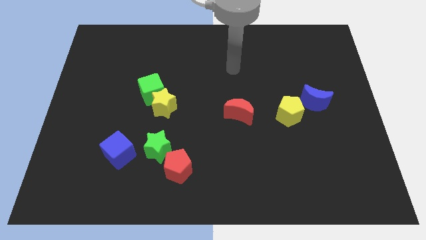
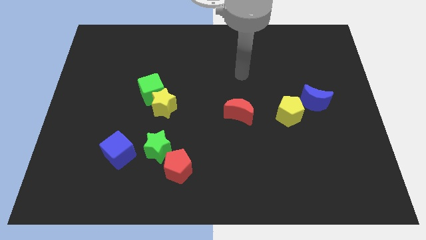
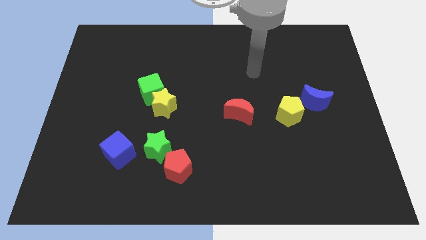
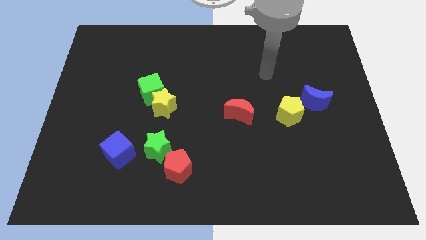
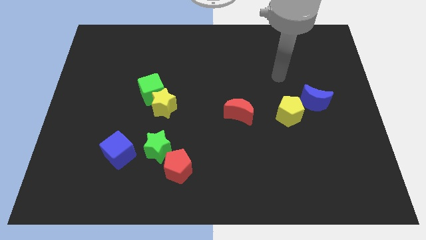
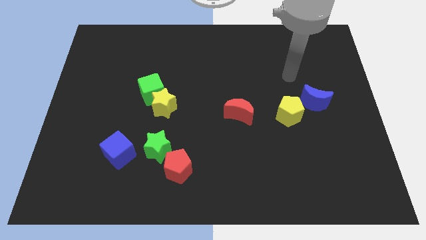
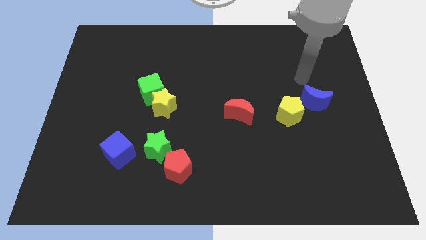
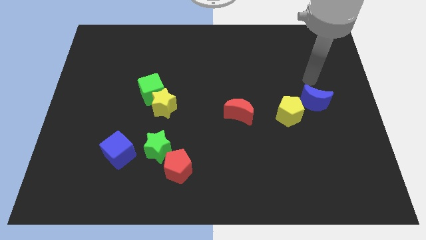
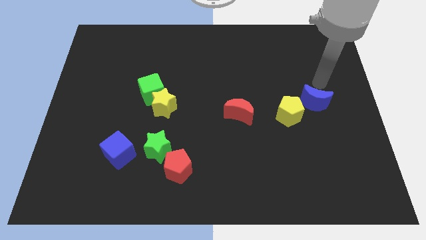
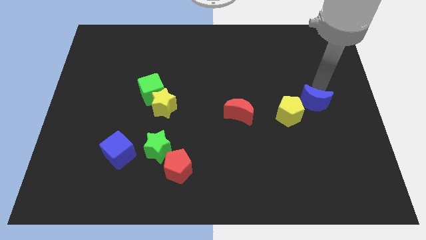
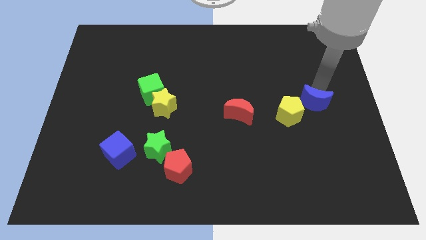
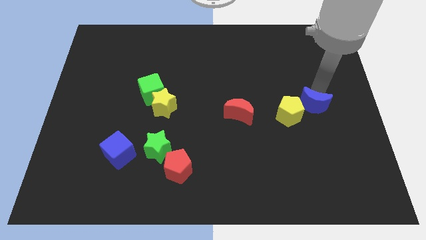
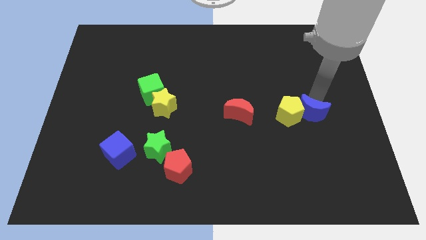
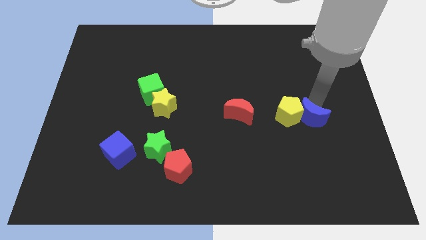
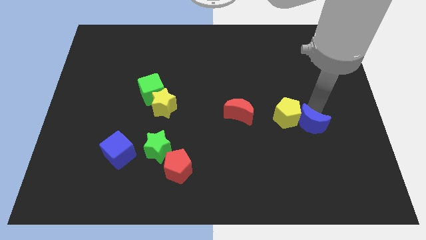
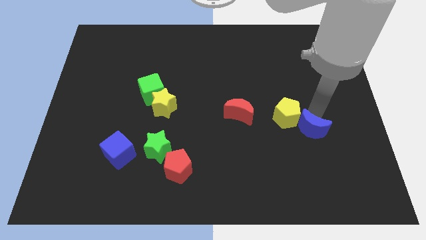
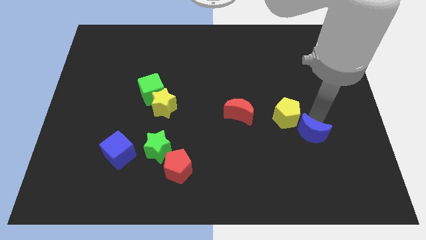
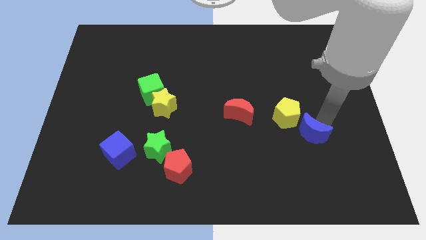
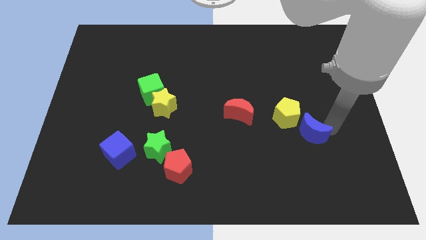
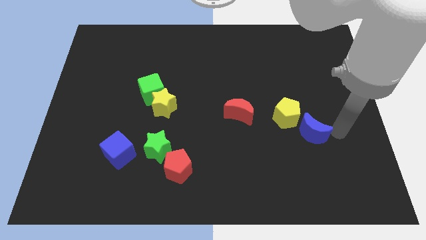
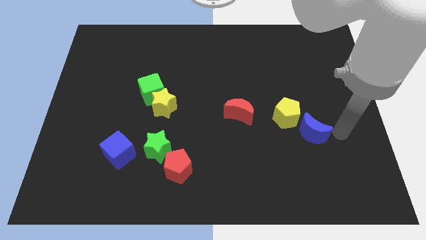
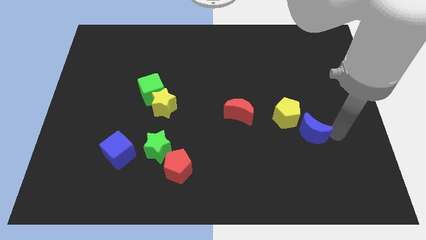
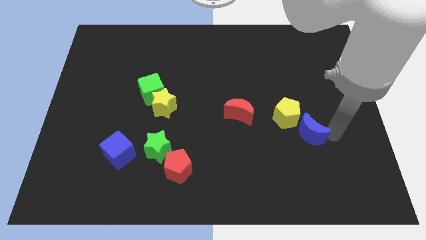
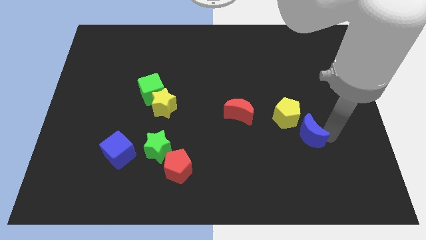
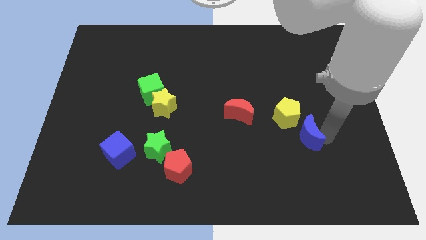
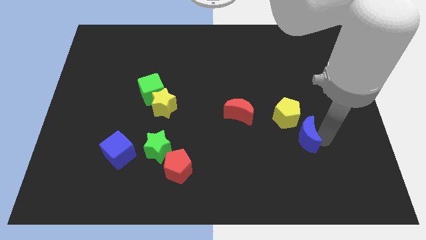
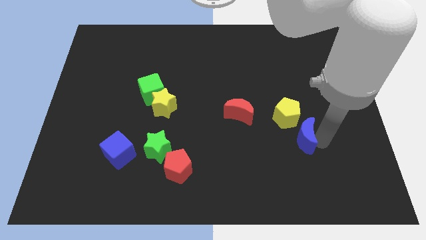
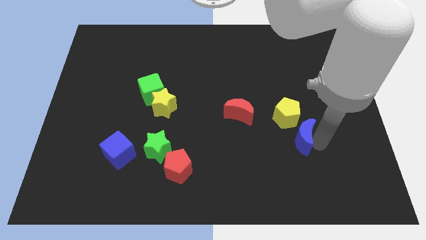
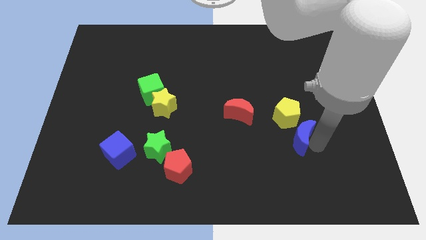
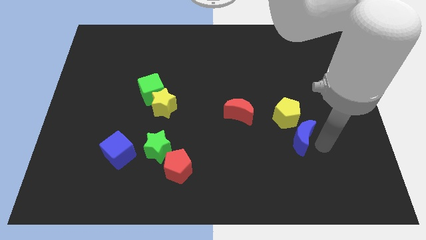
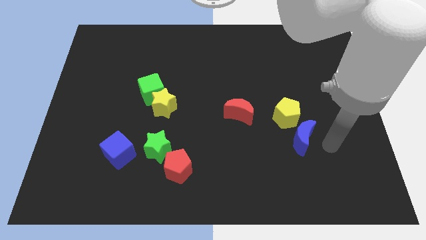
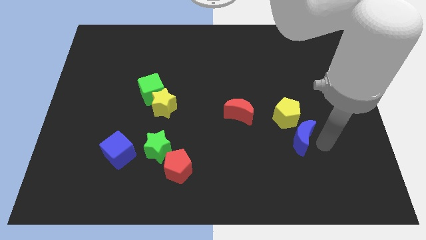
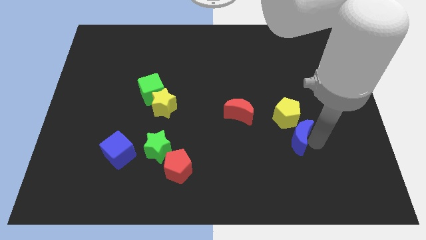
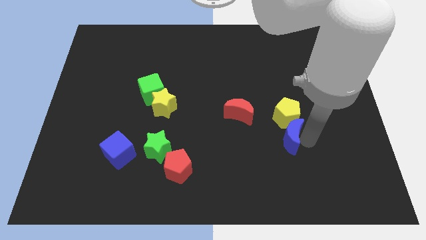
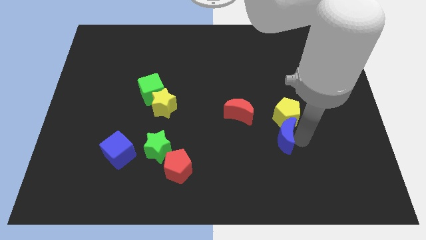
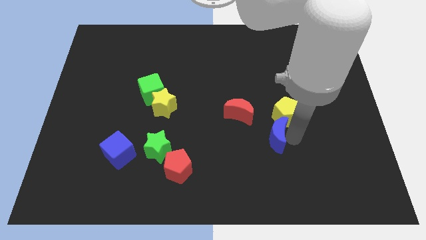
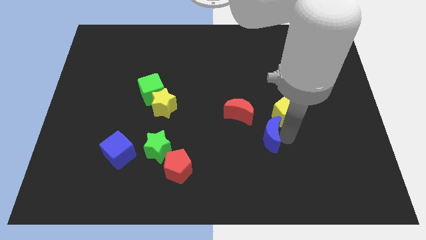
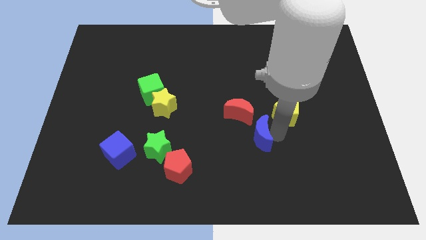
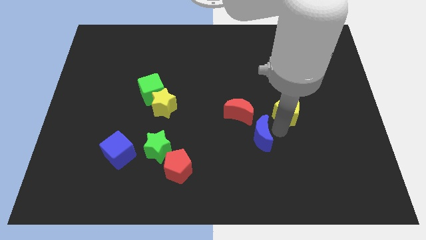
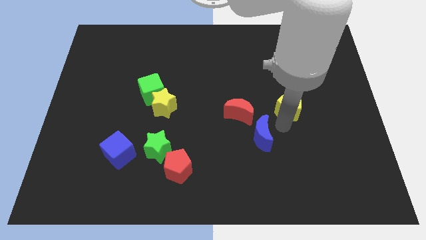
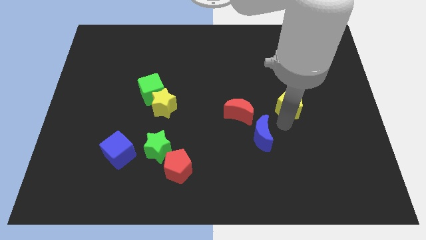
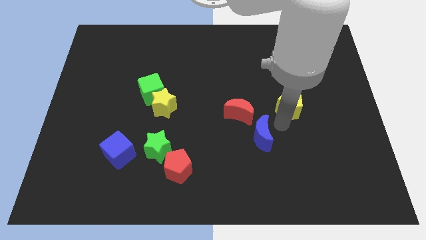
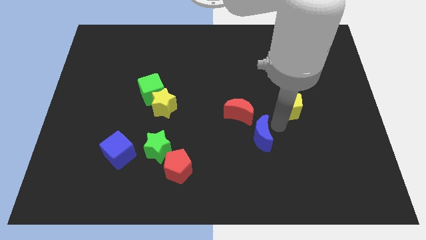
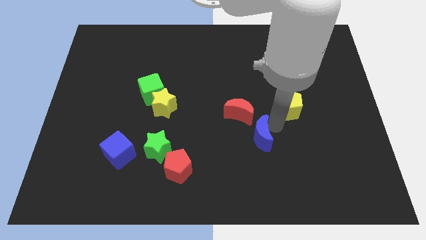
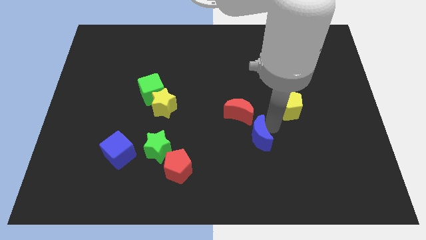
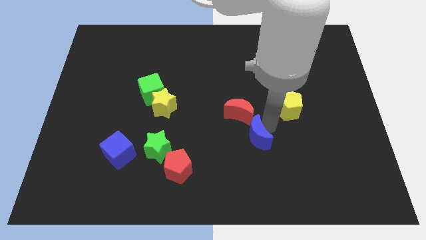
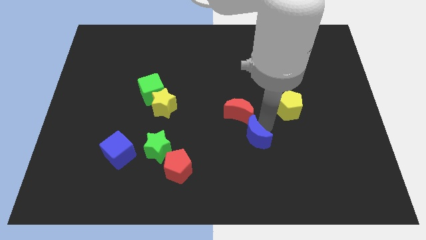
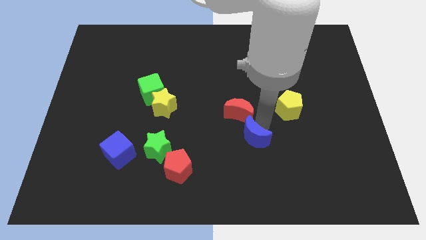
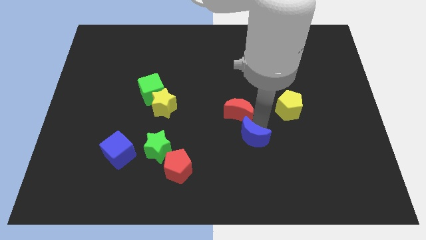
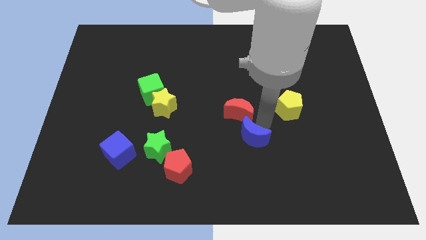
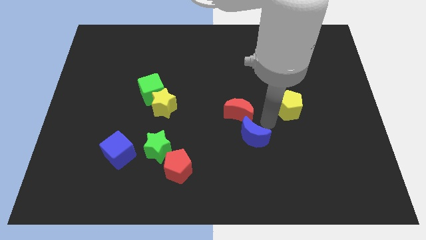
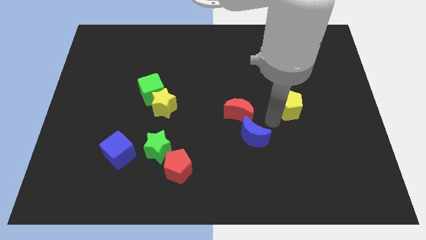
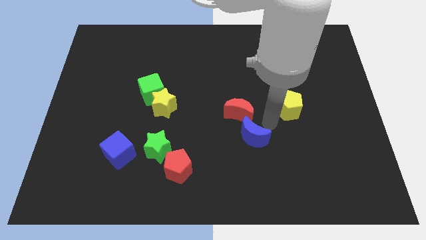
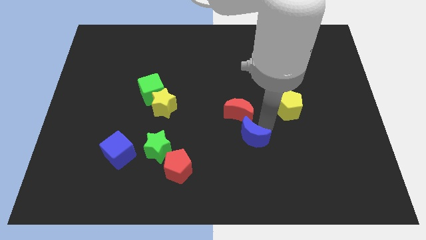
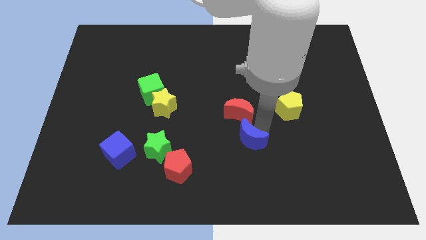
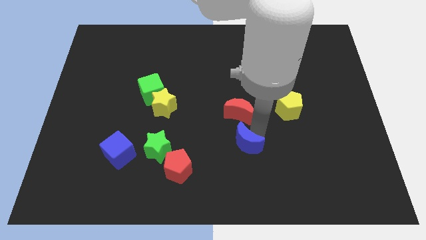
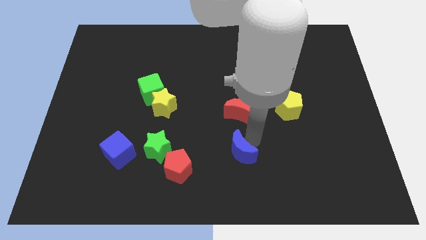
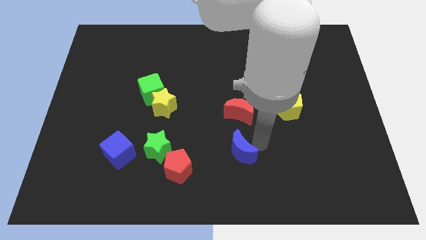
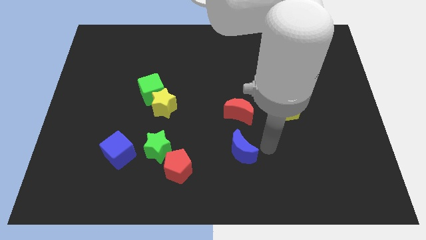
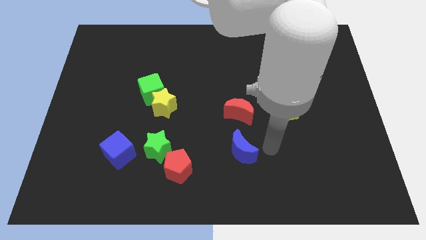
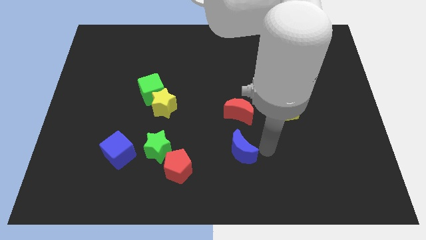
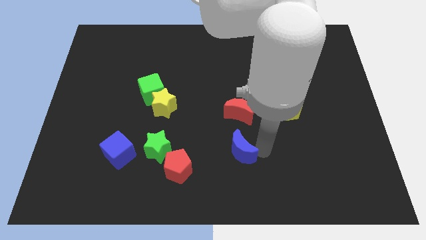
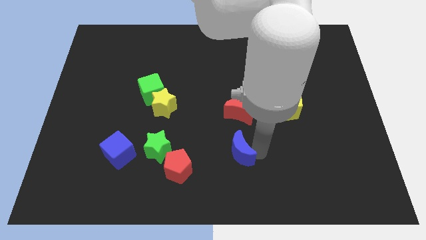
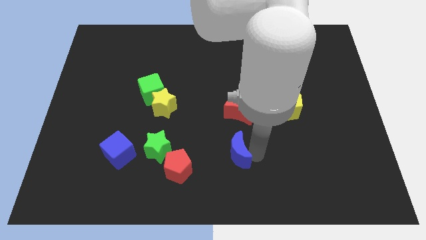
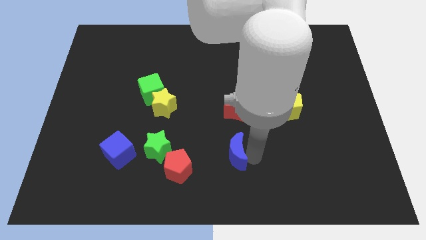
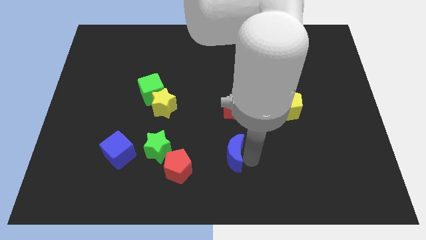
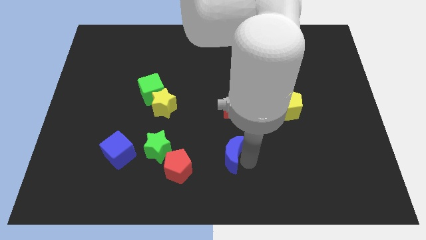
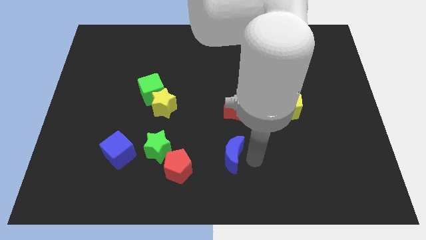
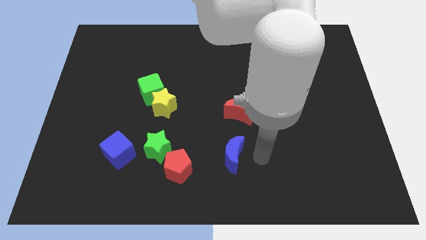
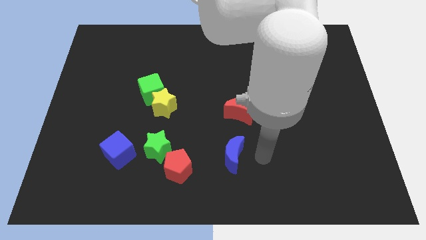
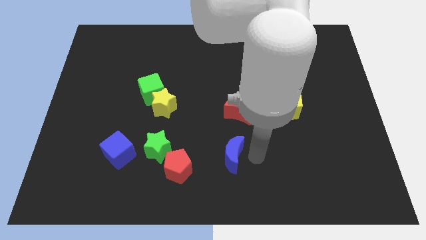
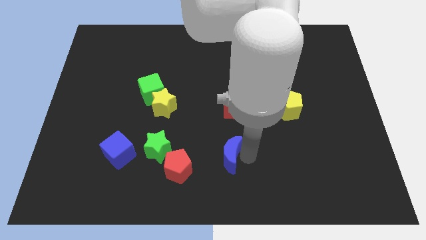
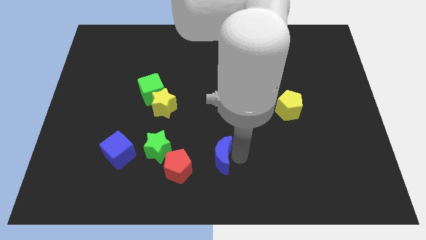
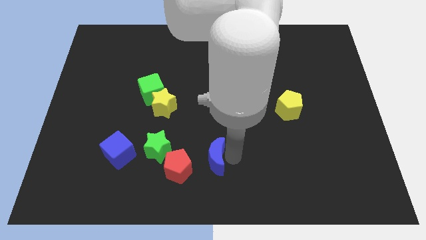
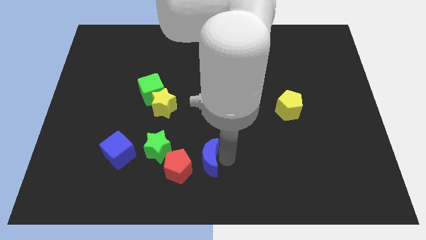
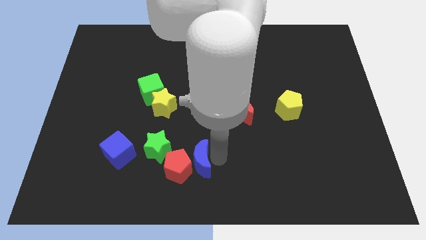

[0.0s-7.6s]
slide the blue moon to the red pentagon
